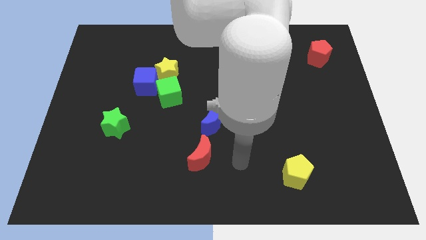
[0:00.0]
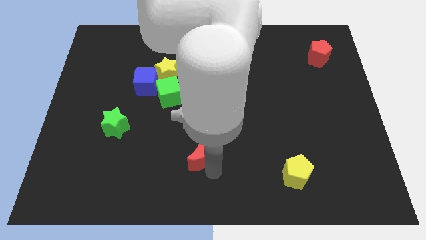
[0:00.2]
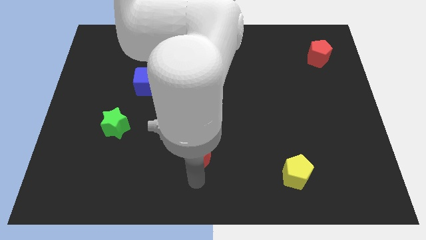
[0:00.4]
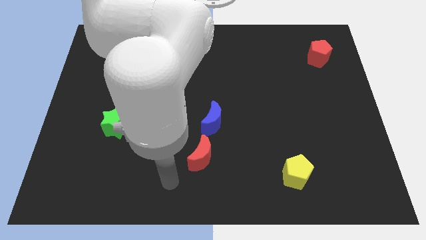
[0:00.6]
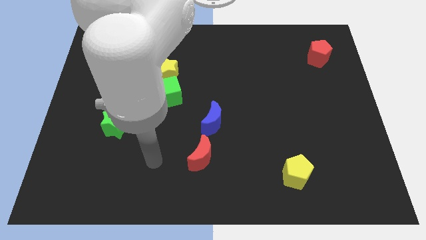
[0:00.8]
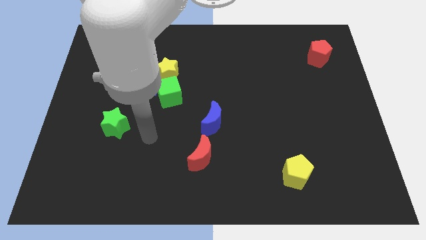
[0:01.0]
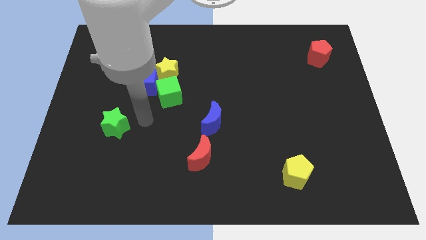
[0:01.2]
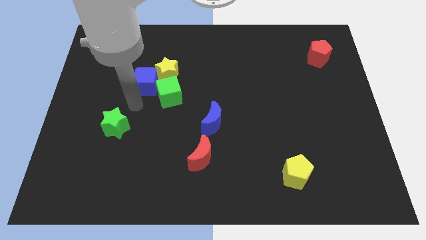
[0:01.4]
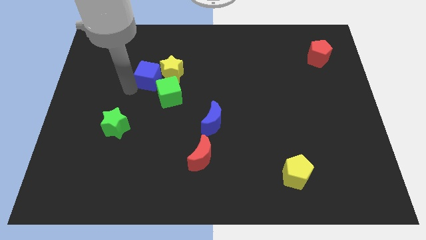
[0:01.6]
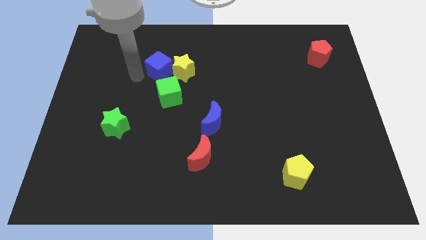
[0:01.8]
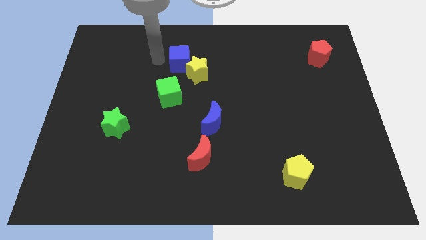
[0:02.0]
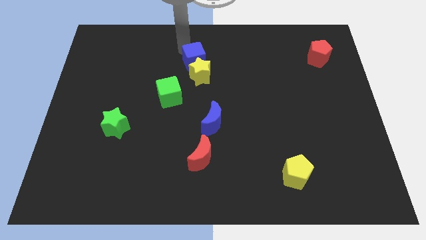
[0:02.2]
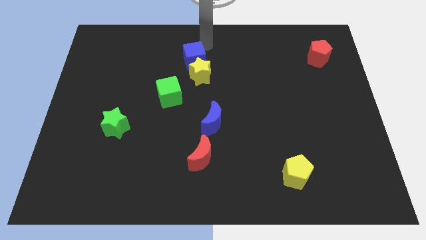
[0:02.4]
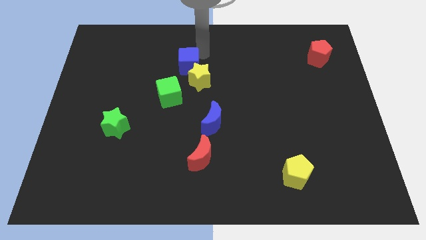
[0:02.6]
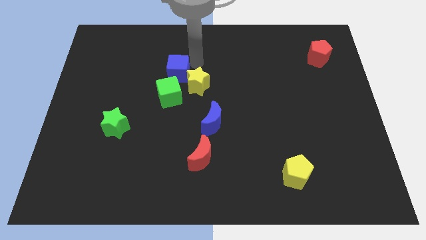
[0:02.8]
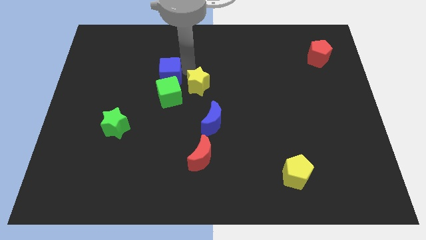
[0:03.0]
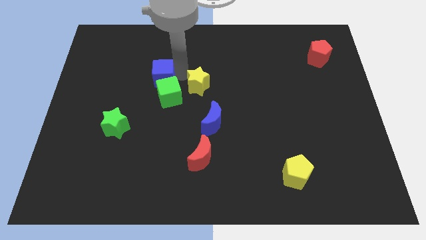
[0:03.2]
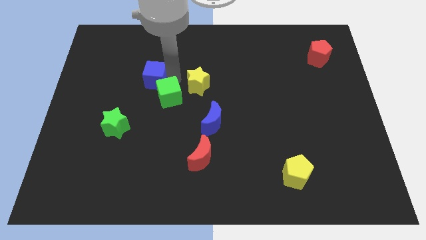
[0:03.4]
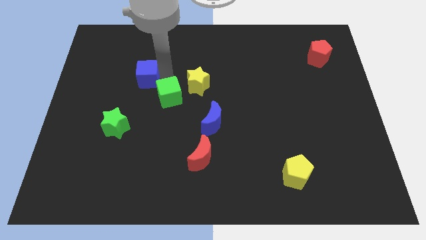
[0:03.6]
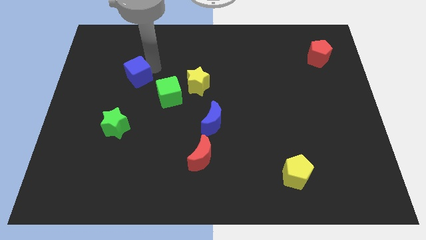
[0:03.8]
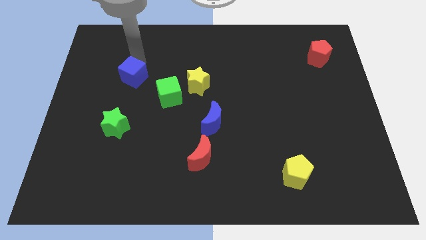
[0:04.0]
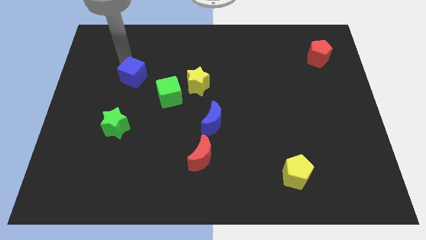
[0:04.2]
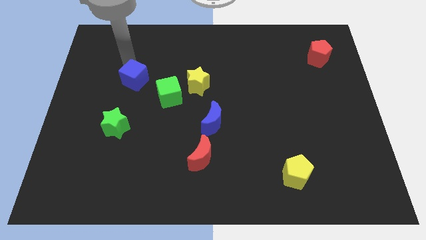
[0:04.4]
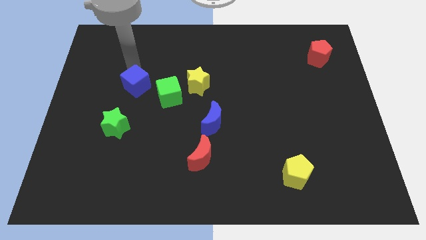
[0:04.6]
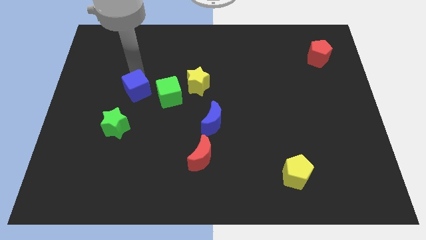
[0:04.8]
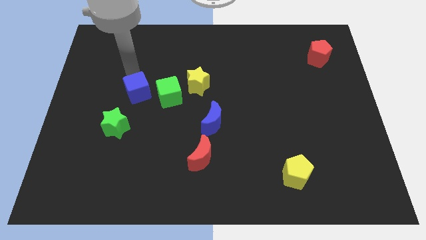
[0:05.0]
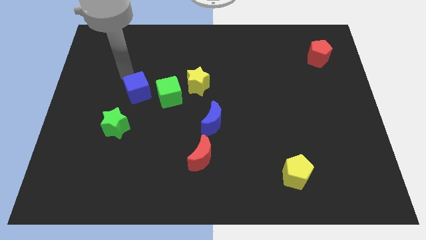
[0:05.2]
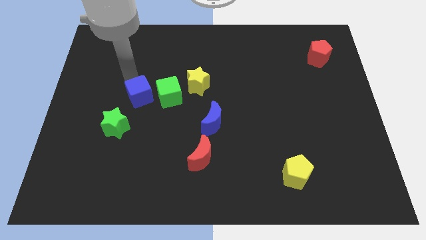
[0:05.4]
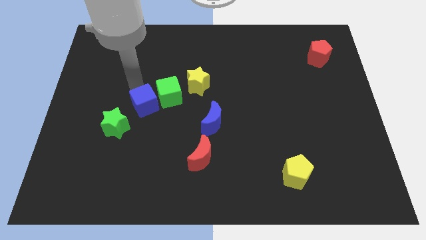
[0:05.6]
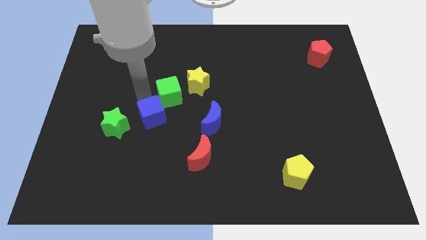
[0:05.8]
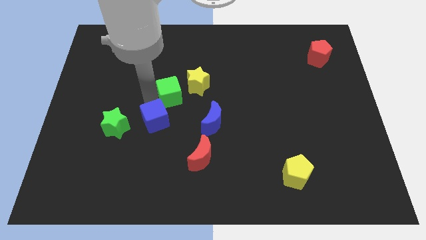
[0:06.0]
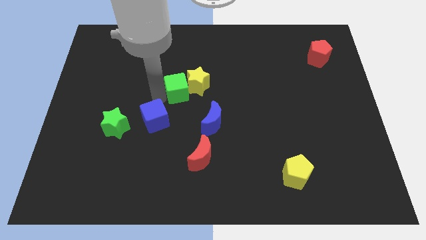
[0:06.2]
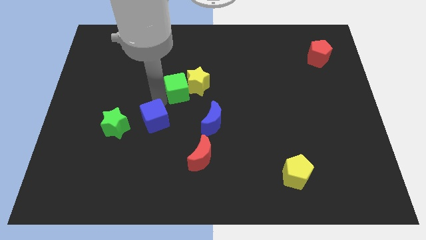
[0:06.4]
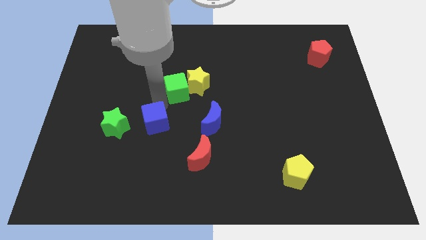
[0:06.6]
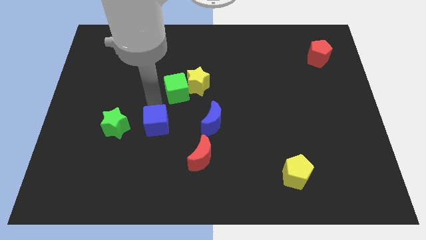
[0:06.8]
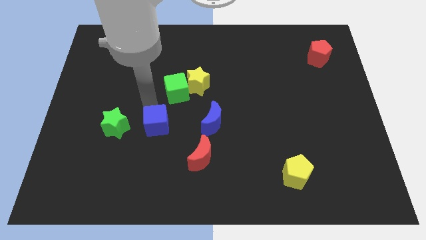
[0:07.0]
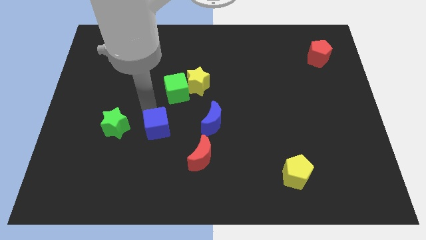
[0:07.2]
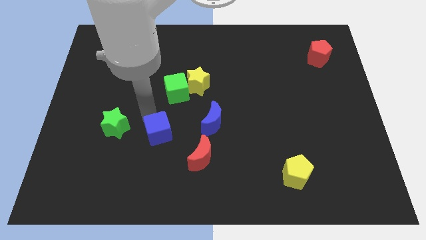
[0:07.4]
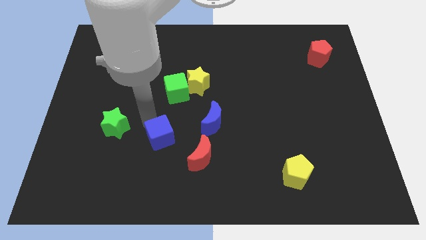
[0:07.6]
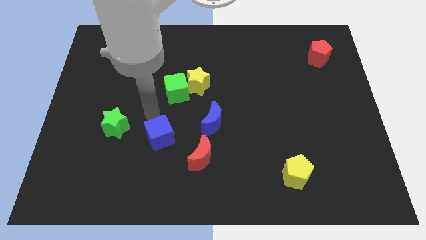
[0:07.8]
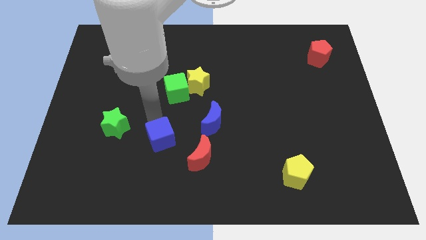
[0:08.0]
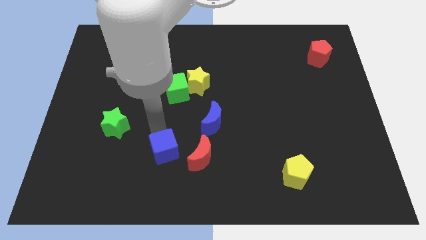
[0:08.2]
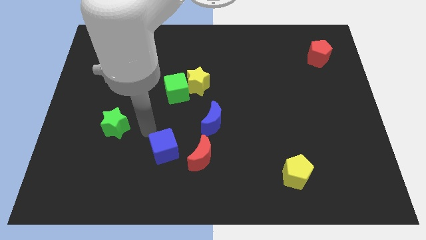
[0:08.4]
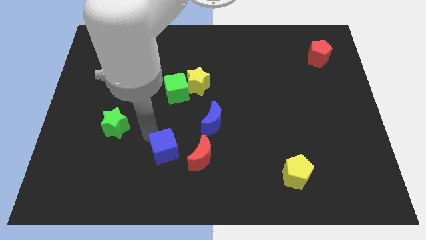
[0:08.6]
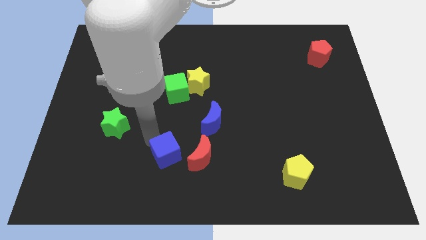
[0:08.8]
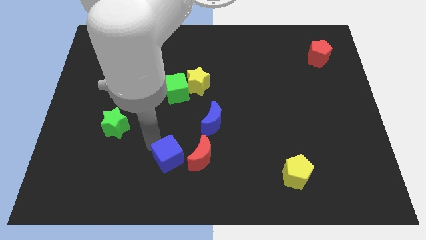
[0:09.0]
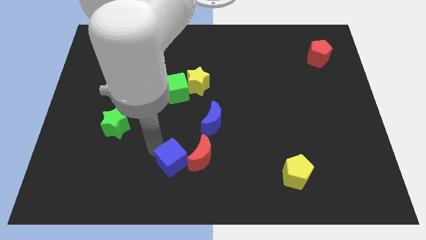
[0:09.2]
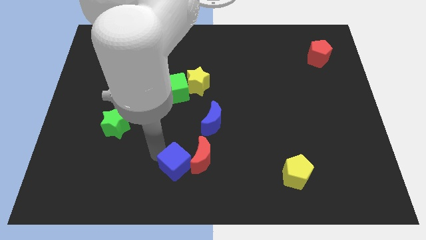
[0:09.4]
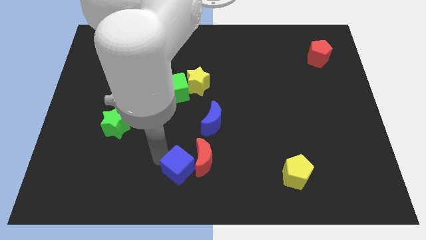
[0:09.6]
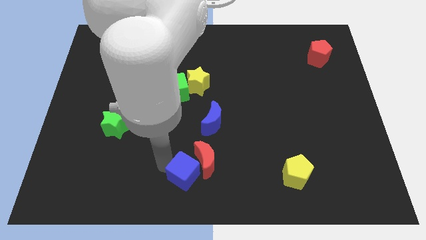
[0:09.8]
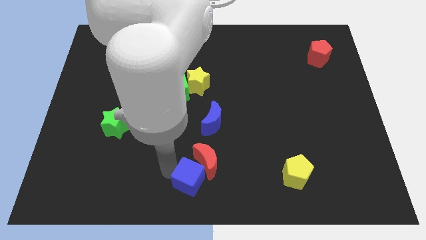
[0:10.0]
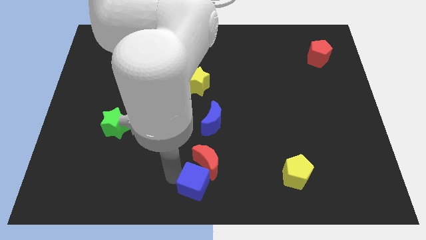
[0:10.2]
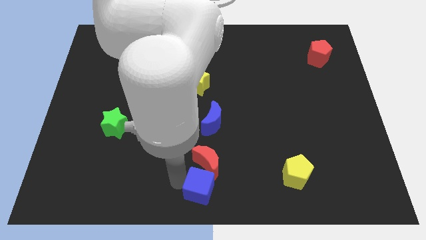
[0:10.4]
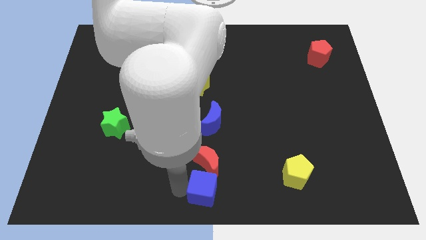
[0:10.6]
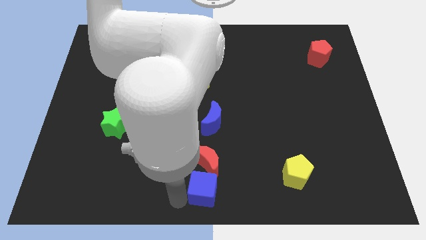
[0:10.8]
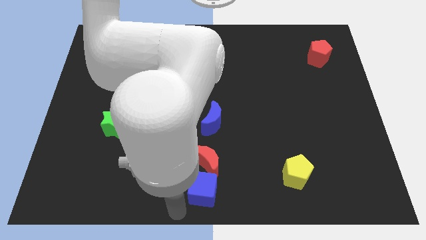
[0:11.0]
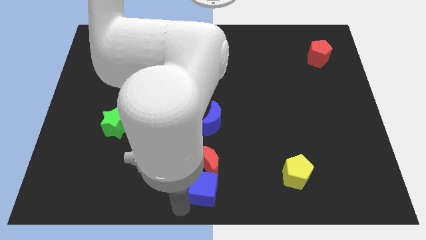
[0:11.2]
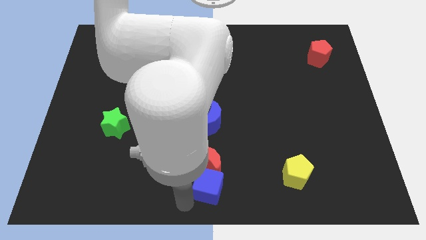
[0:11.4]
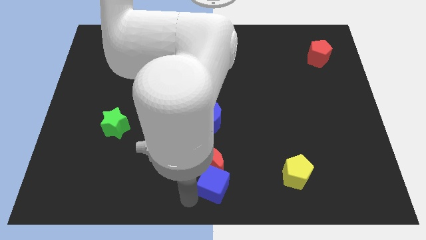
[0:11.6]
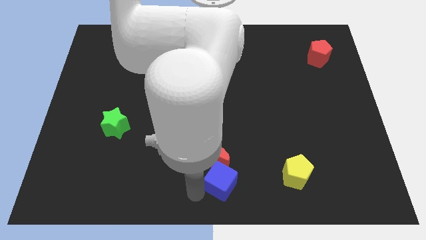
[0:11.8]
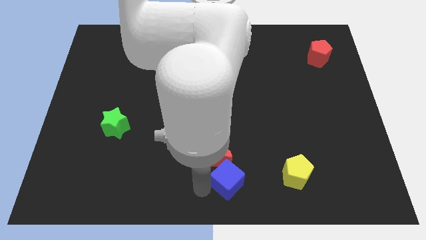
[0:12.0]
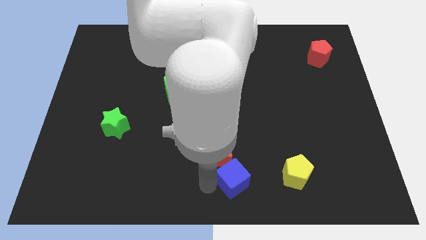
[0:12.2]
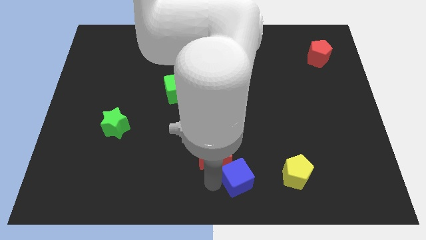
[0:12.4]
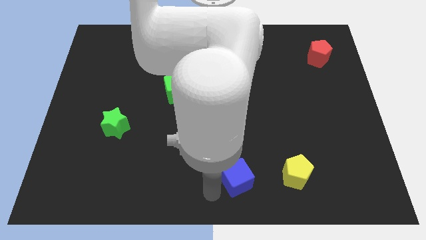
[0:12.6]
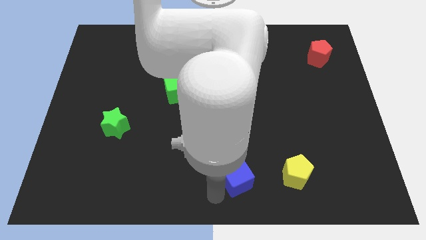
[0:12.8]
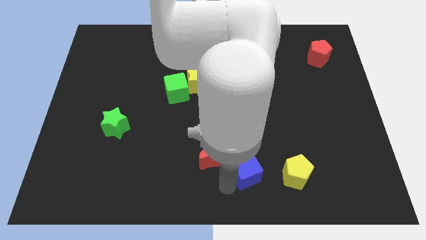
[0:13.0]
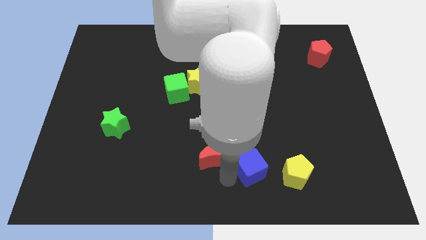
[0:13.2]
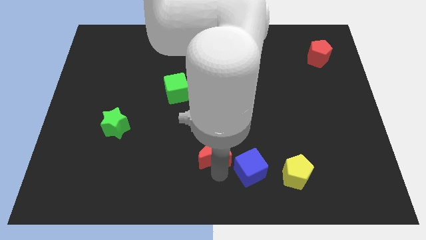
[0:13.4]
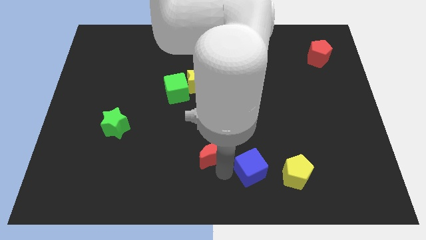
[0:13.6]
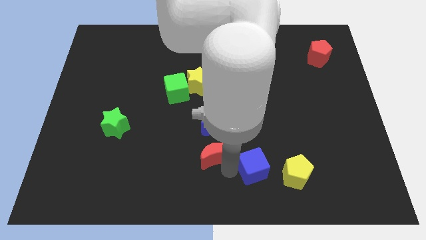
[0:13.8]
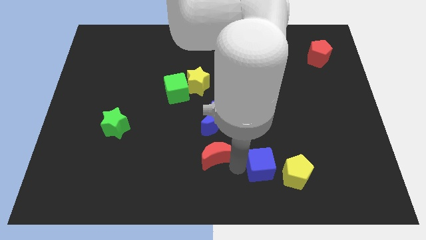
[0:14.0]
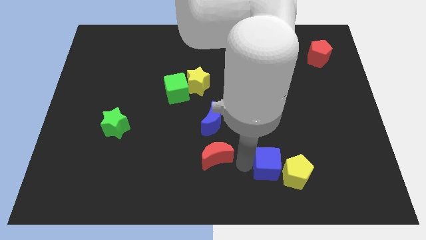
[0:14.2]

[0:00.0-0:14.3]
slide the blue cube to the yellow pentagon
